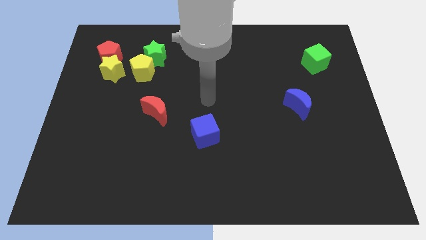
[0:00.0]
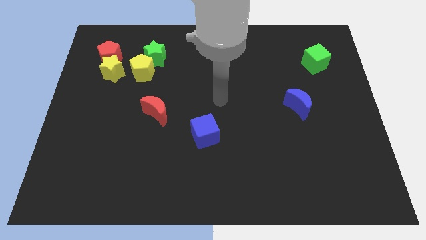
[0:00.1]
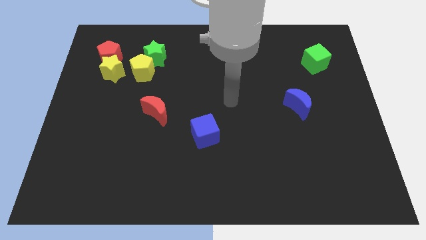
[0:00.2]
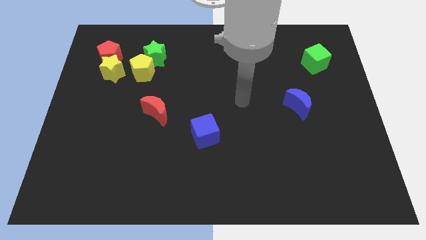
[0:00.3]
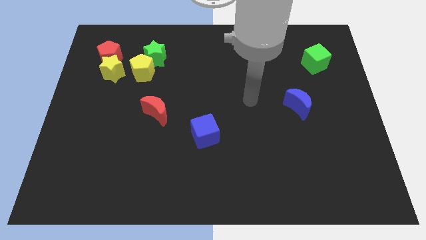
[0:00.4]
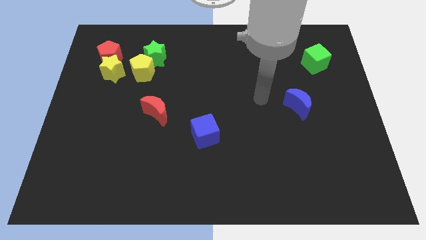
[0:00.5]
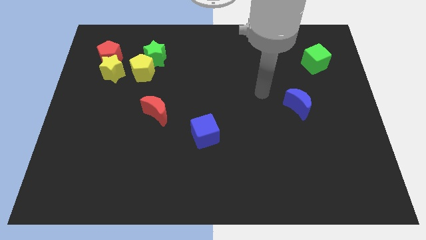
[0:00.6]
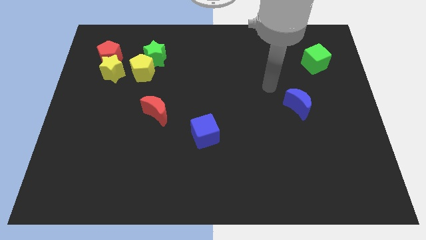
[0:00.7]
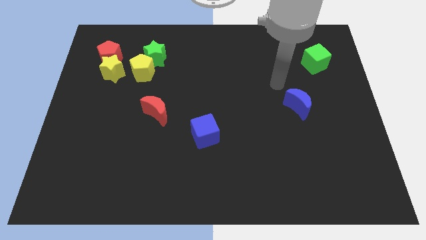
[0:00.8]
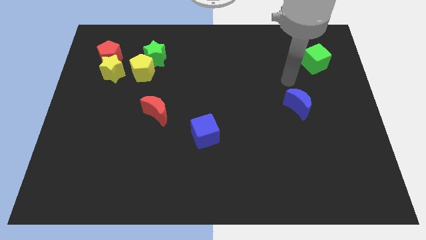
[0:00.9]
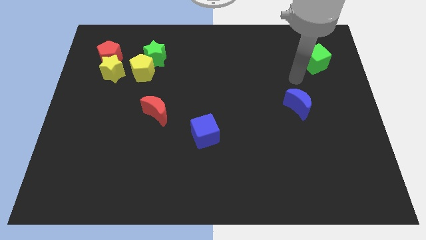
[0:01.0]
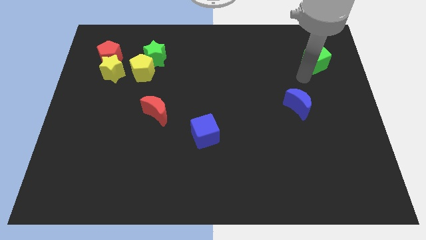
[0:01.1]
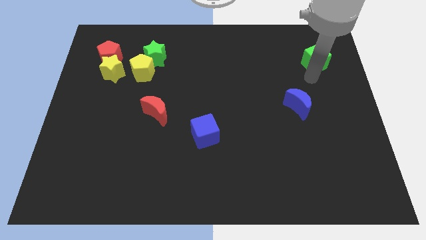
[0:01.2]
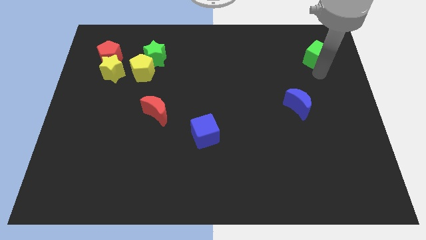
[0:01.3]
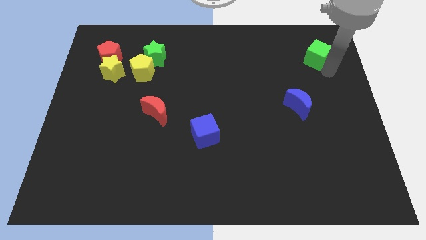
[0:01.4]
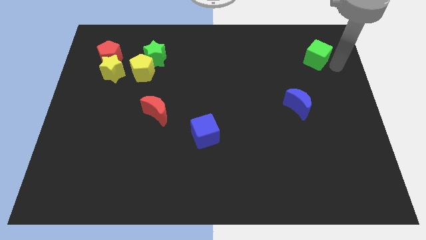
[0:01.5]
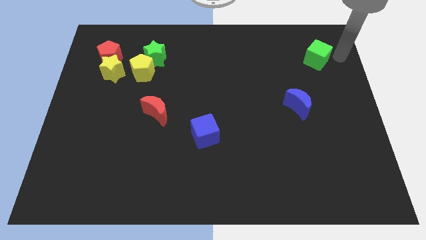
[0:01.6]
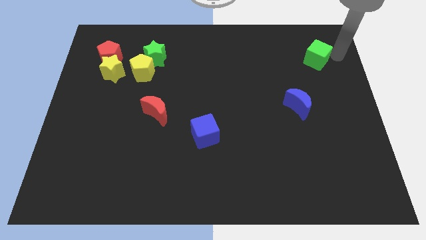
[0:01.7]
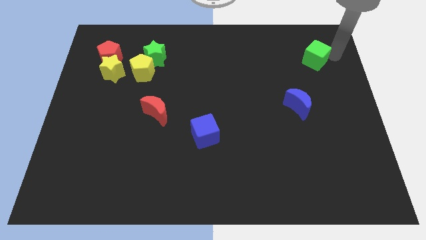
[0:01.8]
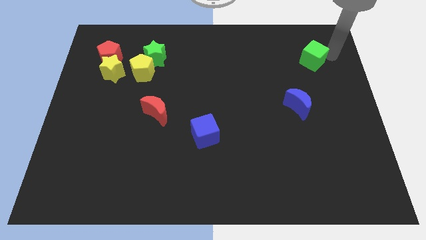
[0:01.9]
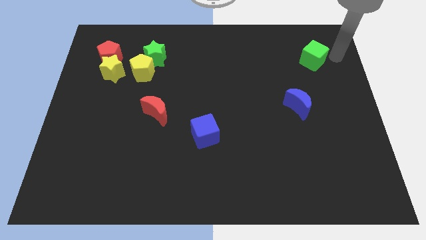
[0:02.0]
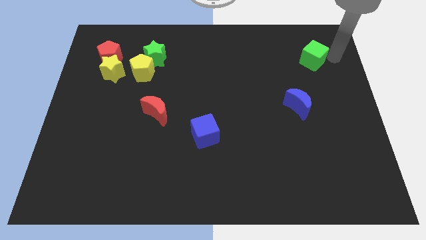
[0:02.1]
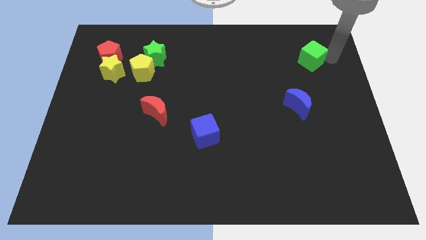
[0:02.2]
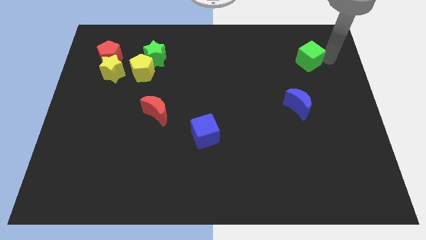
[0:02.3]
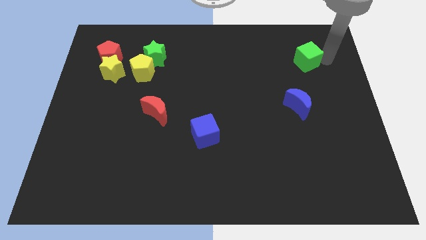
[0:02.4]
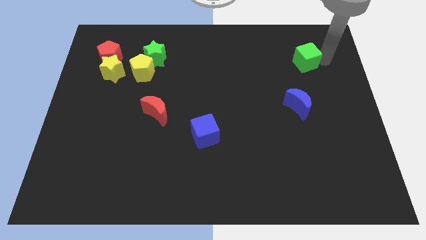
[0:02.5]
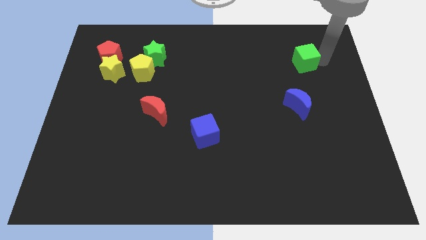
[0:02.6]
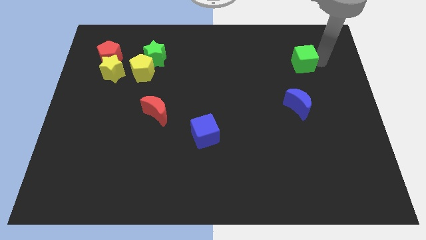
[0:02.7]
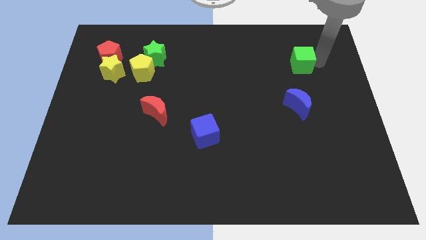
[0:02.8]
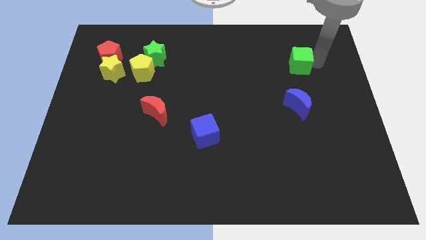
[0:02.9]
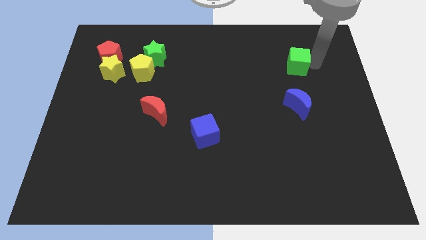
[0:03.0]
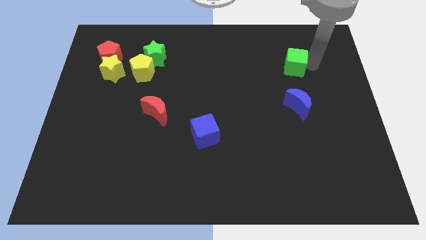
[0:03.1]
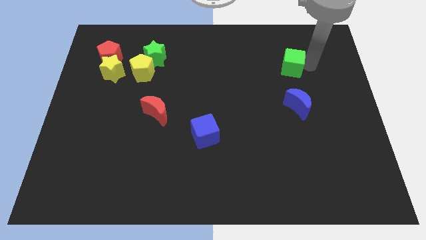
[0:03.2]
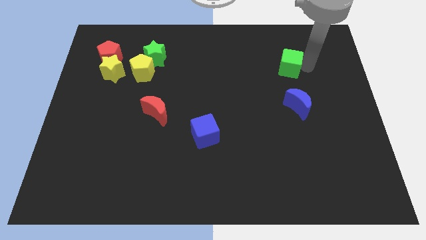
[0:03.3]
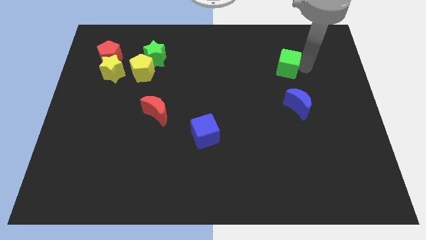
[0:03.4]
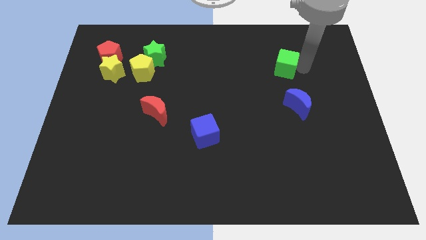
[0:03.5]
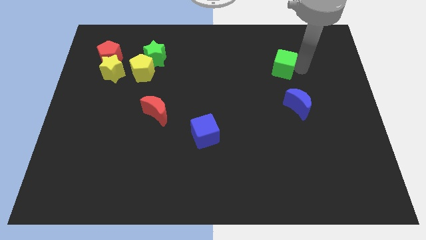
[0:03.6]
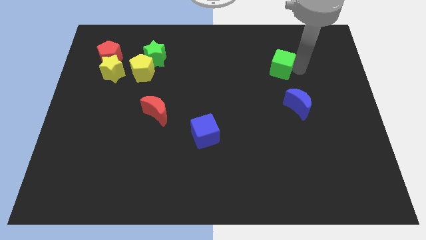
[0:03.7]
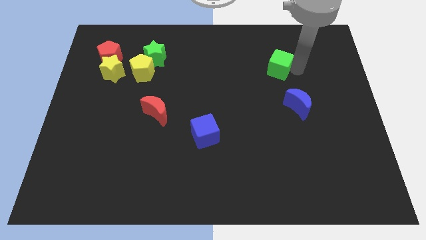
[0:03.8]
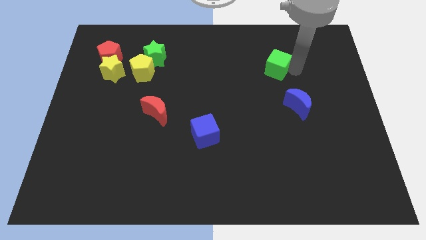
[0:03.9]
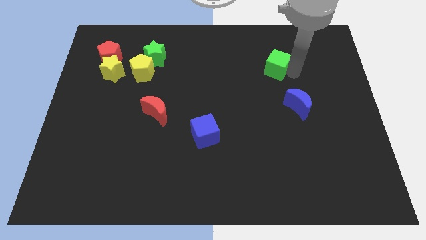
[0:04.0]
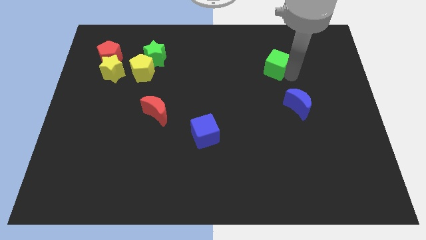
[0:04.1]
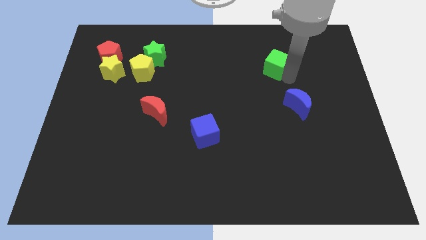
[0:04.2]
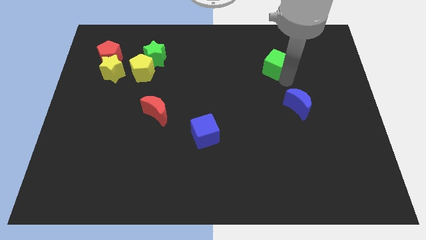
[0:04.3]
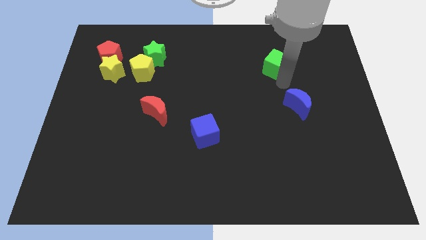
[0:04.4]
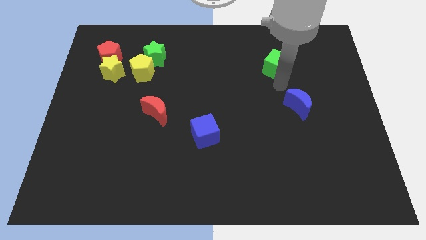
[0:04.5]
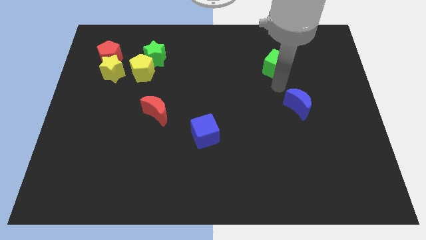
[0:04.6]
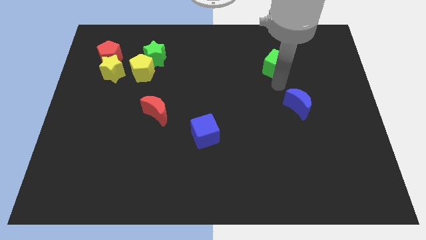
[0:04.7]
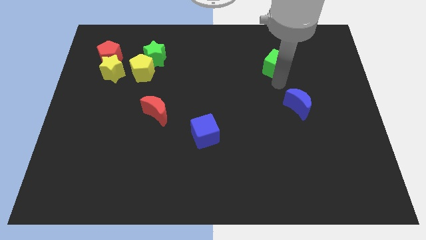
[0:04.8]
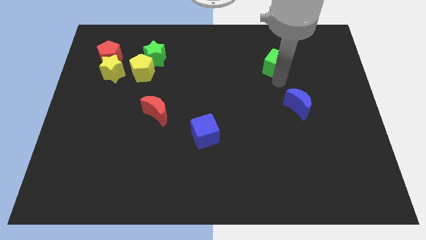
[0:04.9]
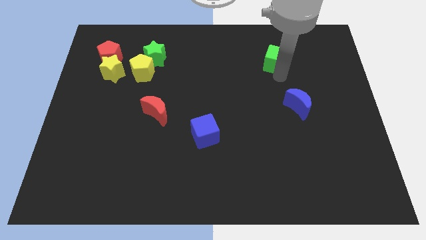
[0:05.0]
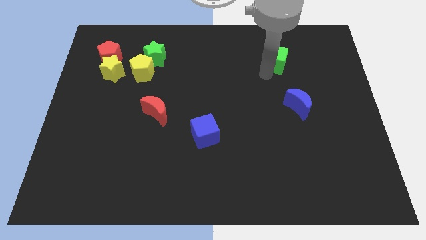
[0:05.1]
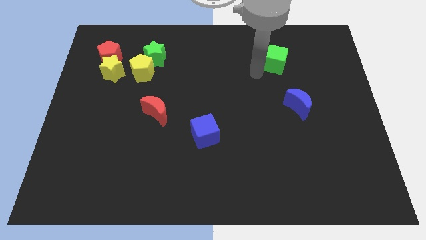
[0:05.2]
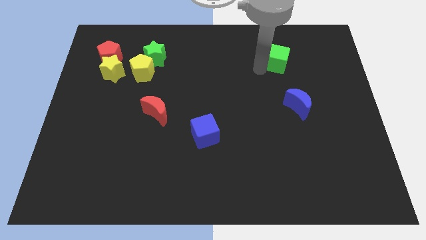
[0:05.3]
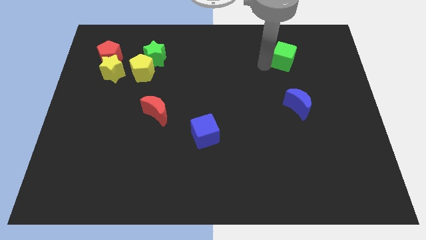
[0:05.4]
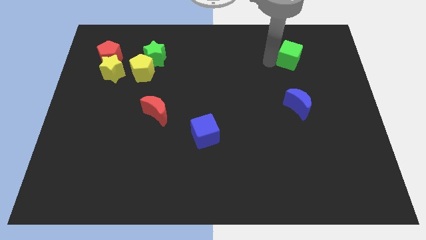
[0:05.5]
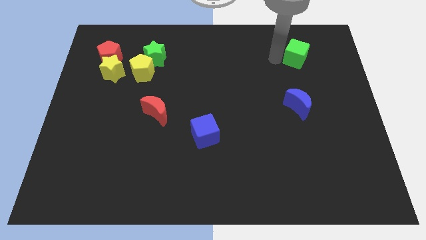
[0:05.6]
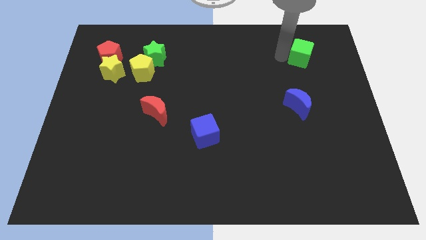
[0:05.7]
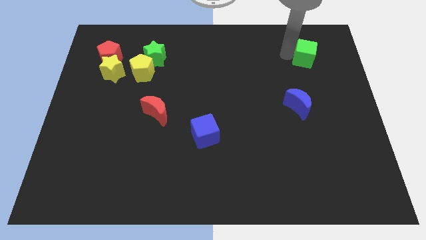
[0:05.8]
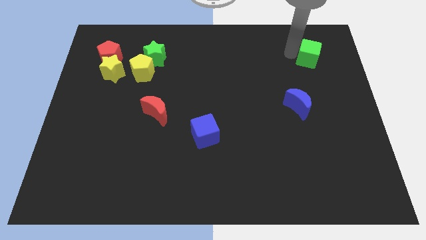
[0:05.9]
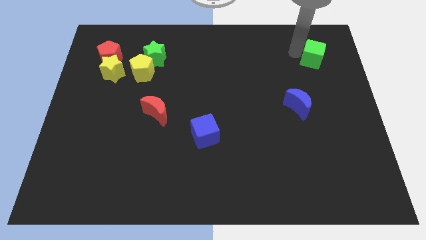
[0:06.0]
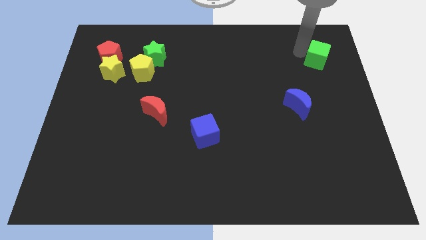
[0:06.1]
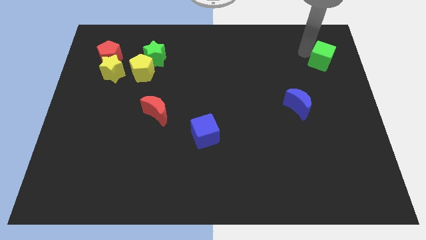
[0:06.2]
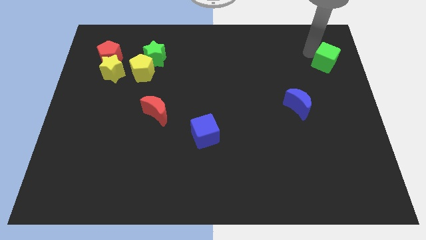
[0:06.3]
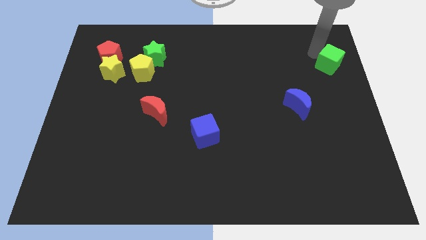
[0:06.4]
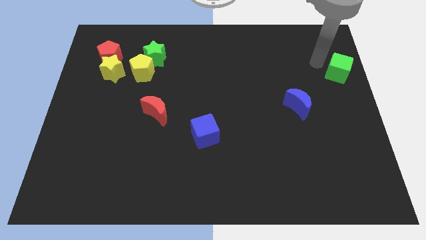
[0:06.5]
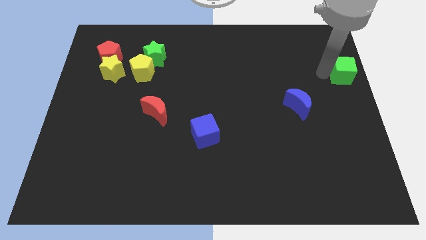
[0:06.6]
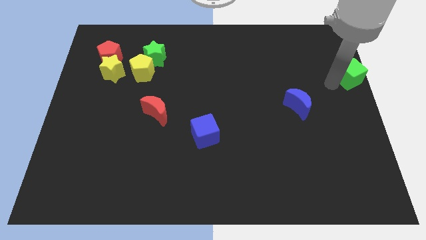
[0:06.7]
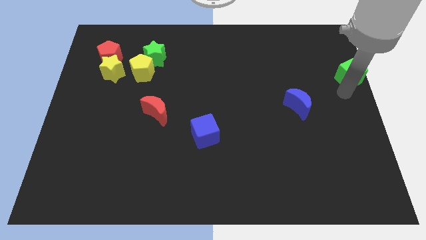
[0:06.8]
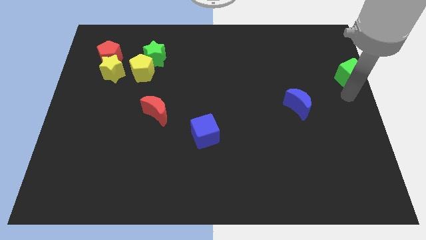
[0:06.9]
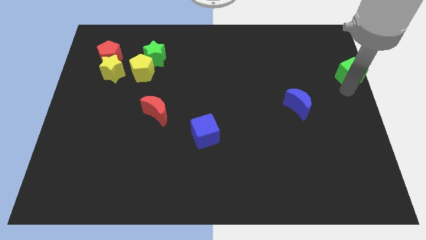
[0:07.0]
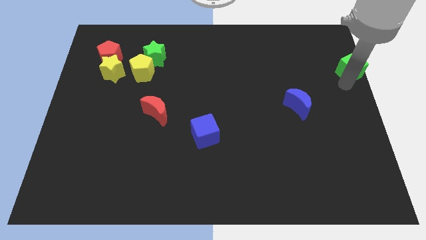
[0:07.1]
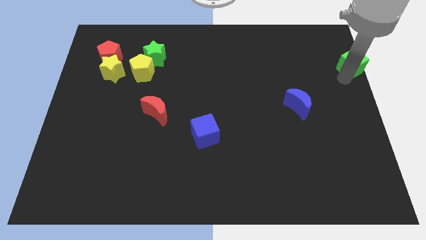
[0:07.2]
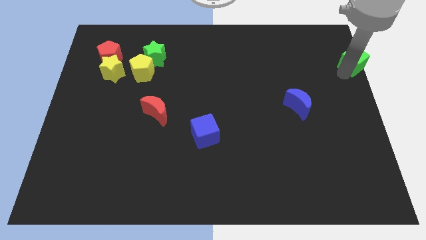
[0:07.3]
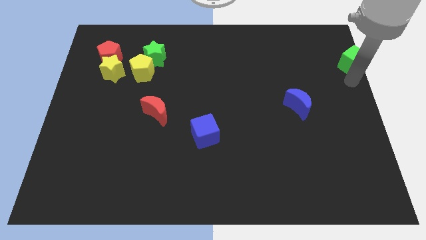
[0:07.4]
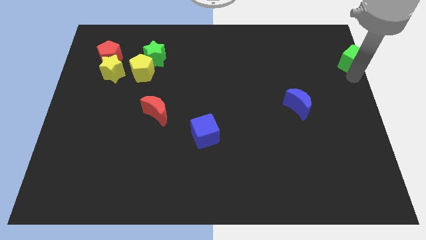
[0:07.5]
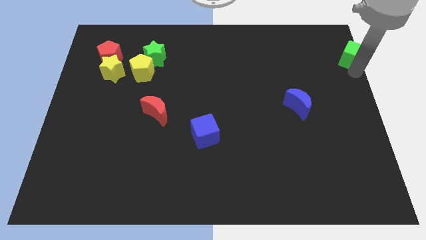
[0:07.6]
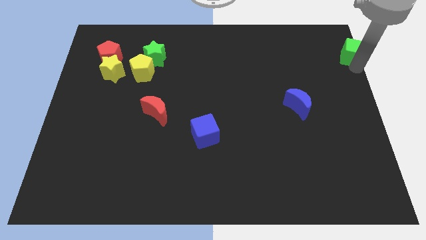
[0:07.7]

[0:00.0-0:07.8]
put the green cube to the upper right corner
